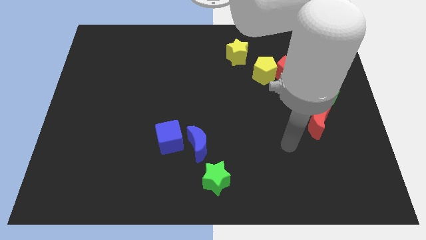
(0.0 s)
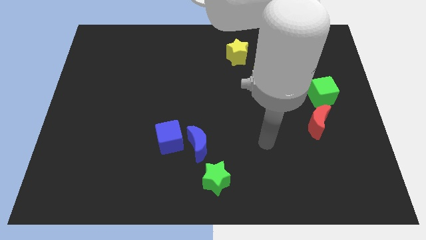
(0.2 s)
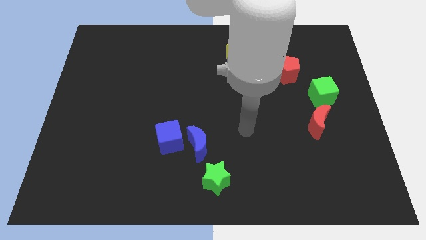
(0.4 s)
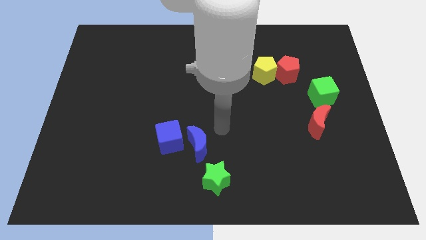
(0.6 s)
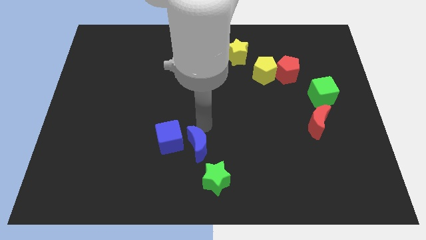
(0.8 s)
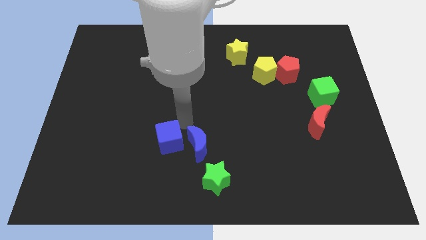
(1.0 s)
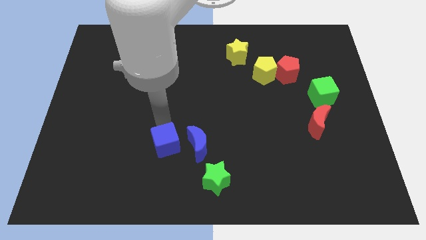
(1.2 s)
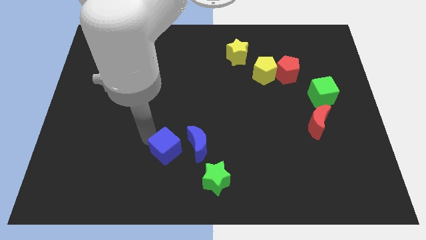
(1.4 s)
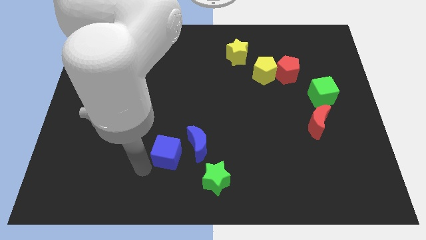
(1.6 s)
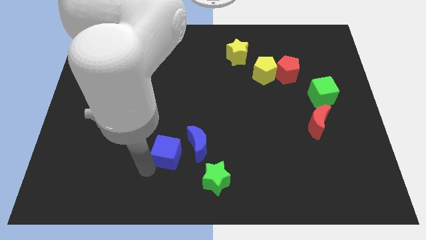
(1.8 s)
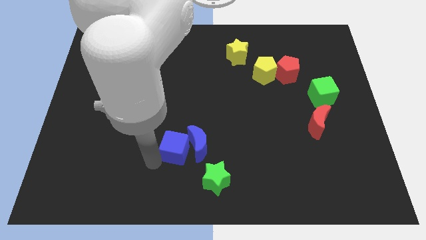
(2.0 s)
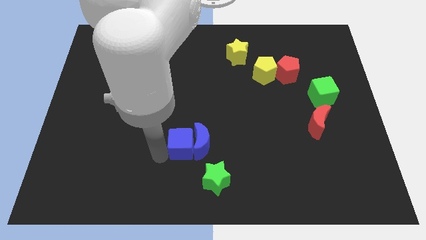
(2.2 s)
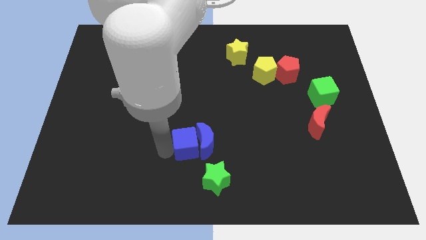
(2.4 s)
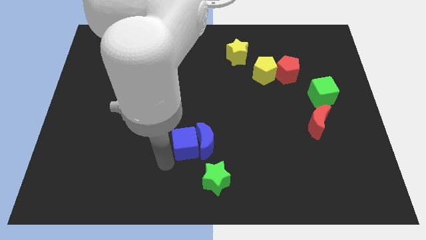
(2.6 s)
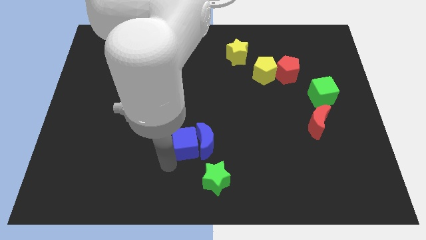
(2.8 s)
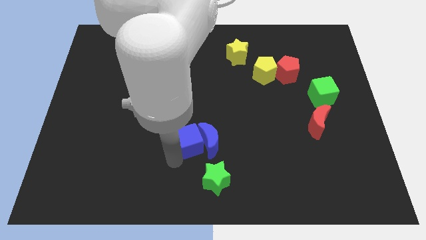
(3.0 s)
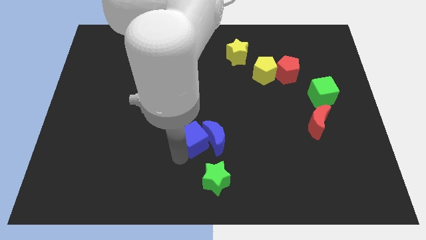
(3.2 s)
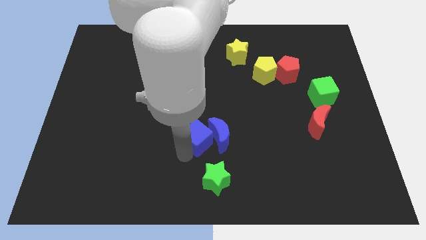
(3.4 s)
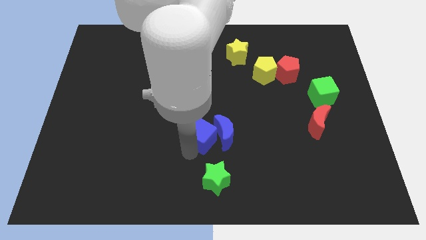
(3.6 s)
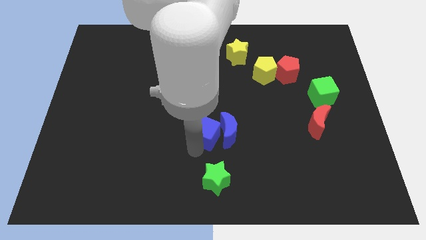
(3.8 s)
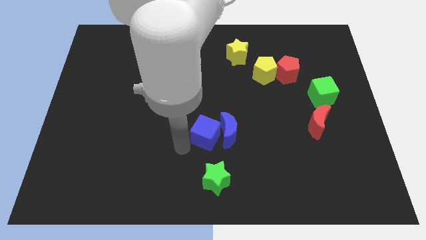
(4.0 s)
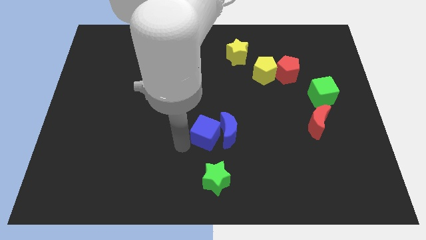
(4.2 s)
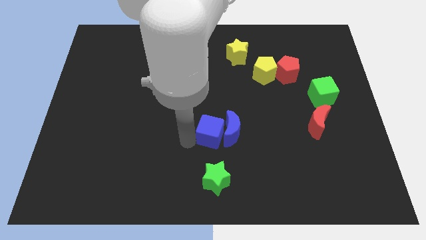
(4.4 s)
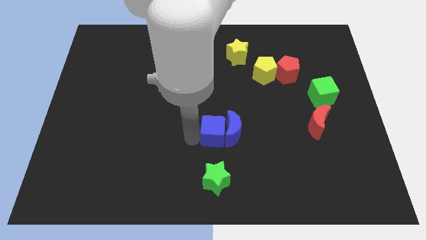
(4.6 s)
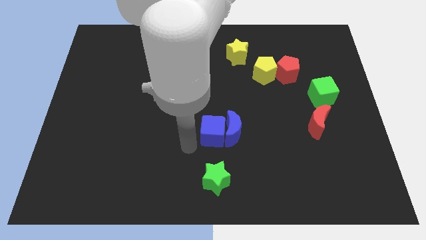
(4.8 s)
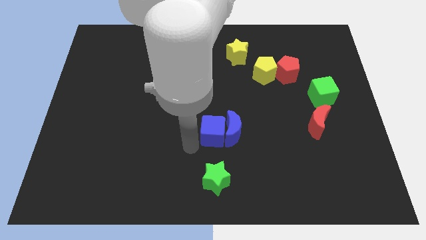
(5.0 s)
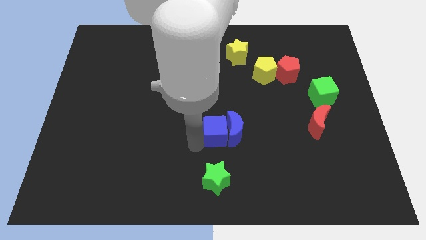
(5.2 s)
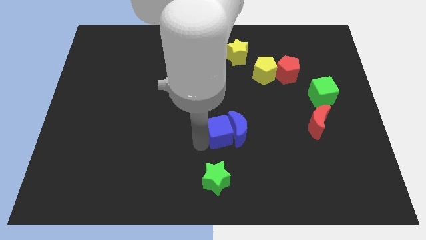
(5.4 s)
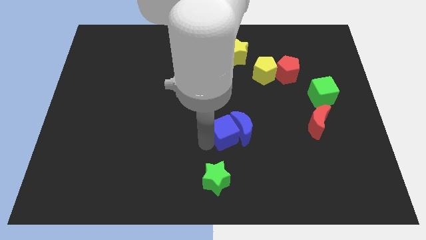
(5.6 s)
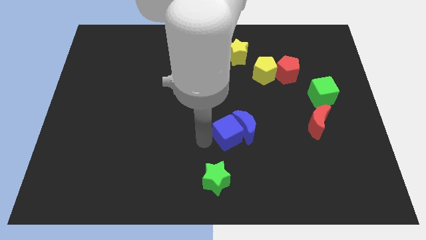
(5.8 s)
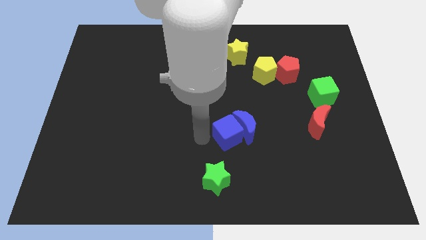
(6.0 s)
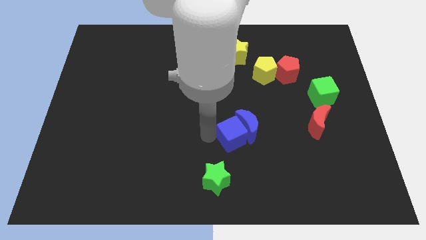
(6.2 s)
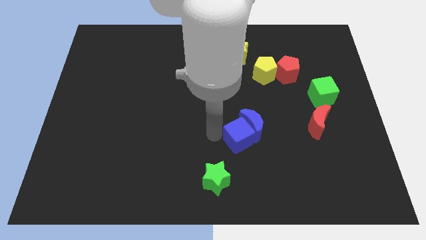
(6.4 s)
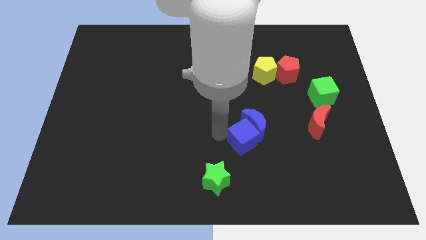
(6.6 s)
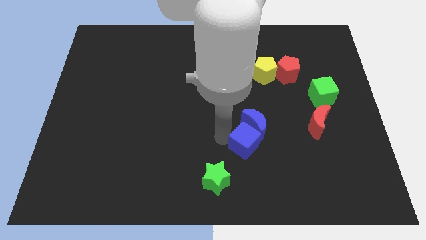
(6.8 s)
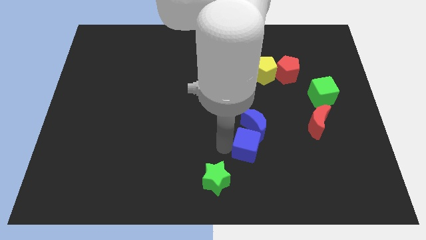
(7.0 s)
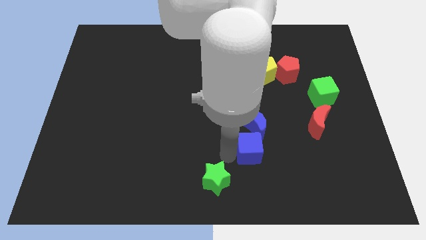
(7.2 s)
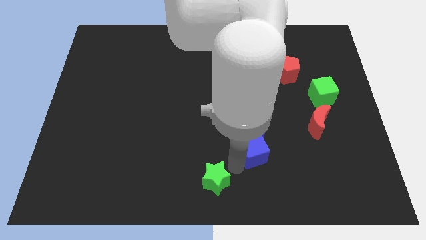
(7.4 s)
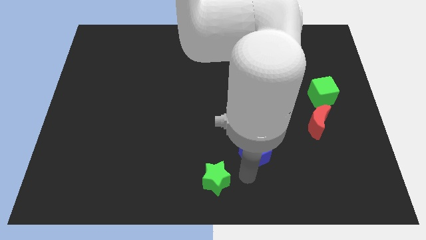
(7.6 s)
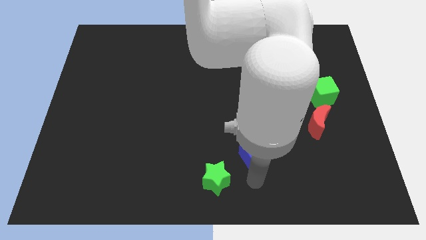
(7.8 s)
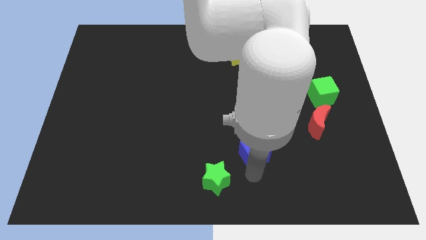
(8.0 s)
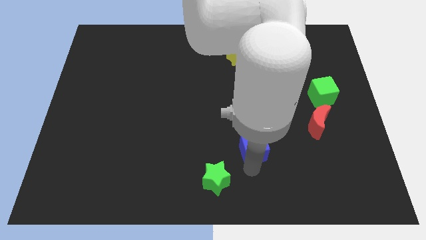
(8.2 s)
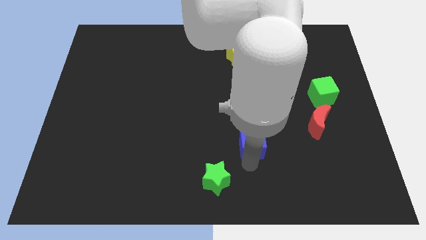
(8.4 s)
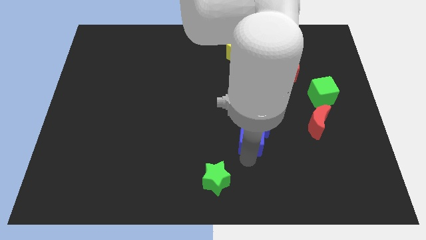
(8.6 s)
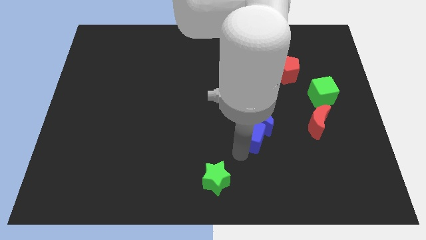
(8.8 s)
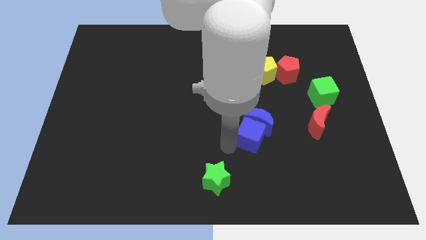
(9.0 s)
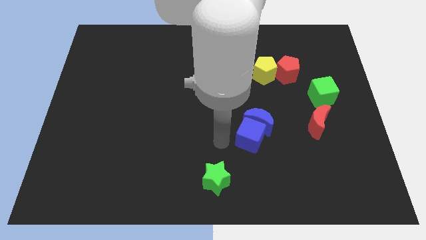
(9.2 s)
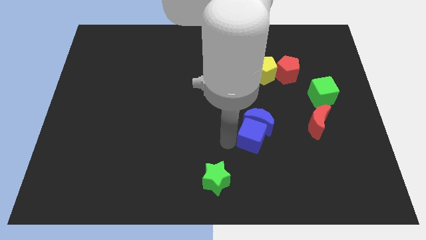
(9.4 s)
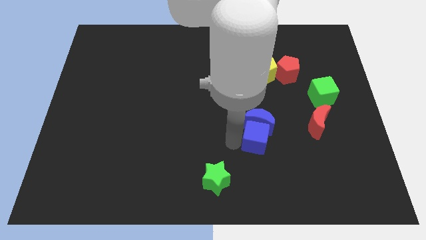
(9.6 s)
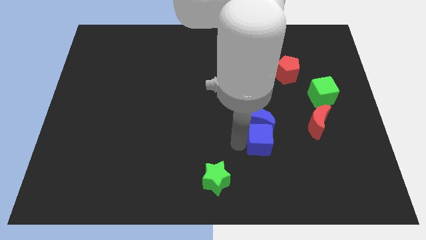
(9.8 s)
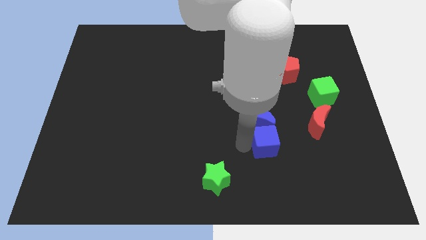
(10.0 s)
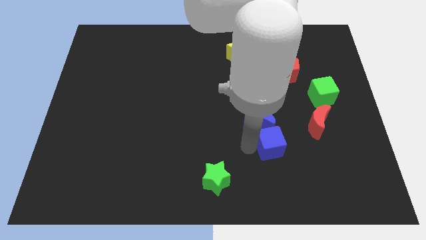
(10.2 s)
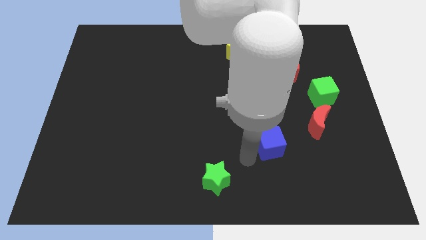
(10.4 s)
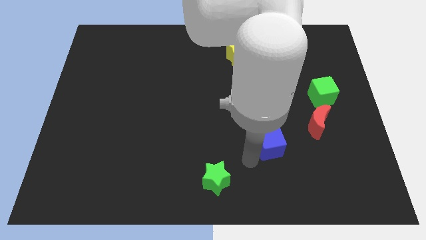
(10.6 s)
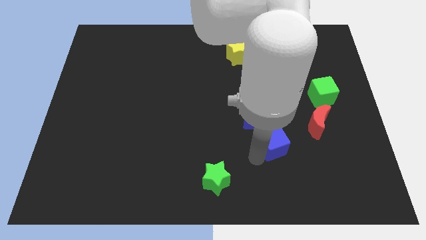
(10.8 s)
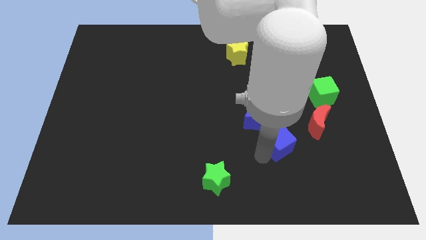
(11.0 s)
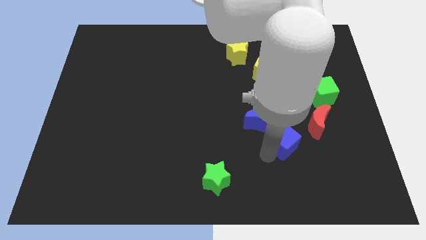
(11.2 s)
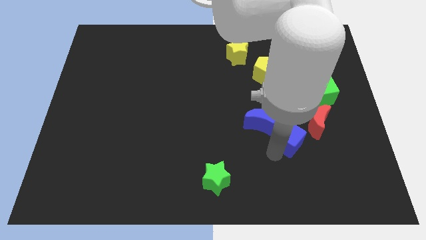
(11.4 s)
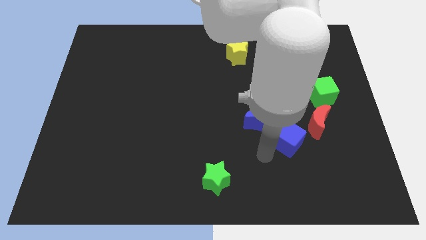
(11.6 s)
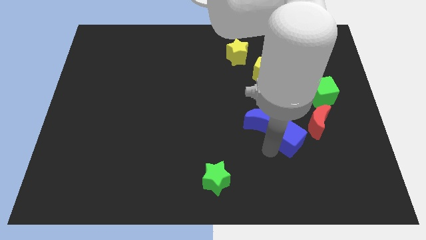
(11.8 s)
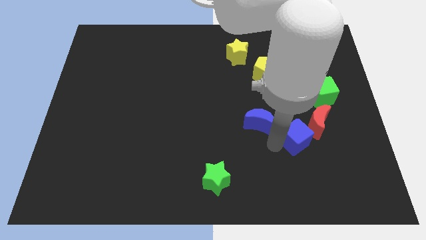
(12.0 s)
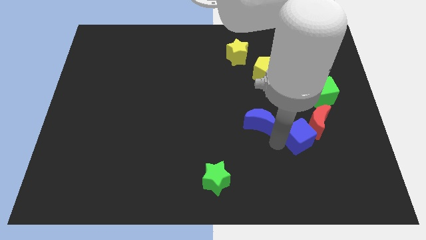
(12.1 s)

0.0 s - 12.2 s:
move the blue cube to the red moon

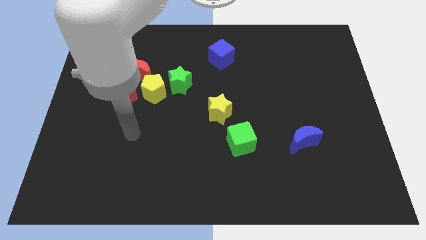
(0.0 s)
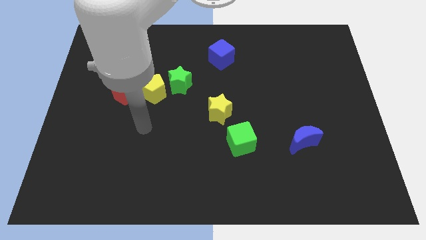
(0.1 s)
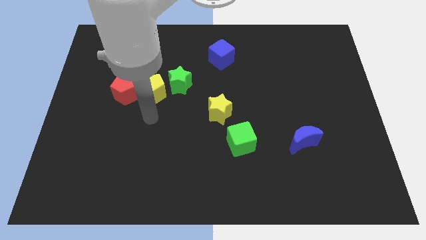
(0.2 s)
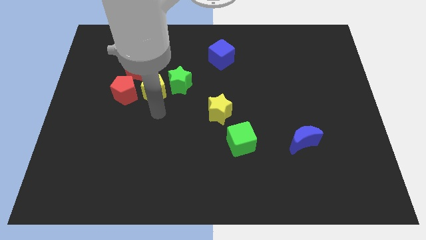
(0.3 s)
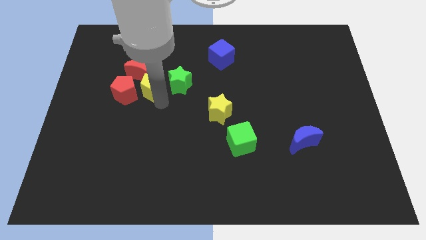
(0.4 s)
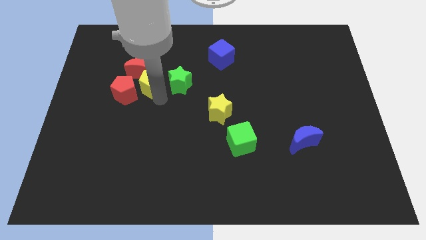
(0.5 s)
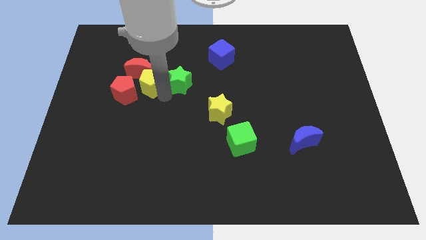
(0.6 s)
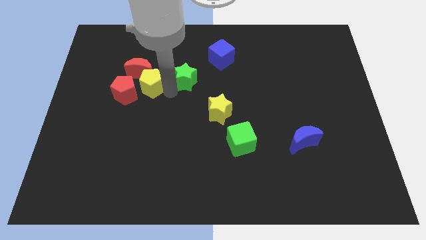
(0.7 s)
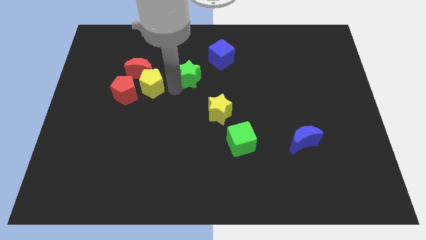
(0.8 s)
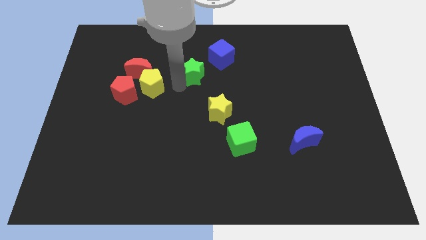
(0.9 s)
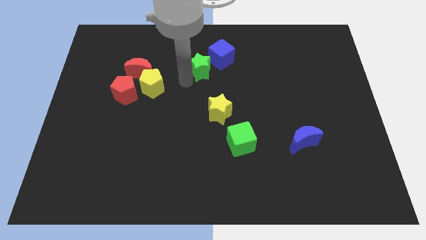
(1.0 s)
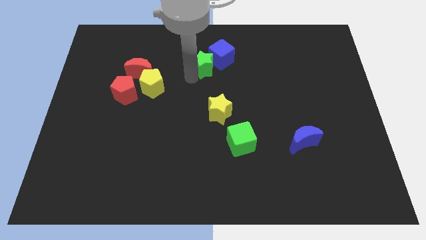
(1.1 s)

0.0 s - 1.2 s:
put the green star close to the blue cube
